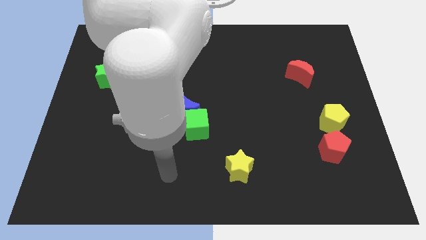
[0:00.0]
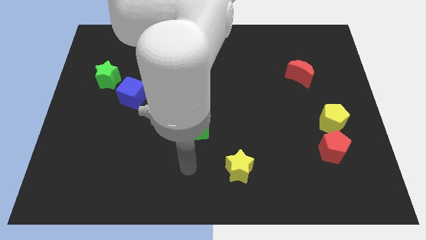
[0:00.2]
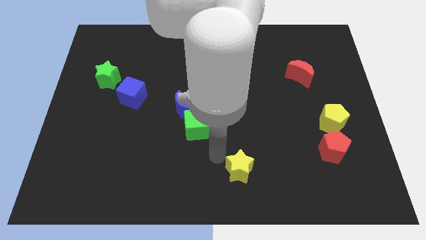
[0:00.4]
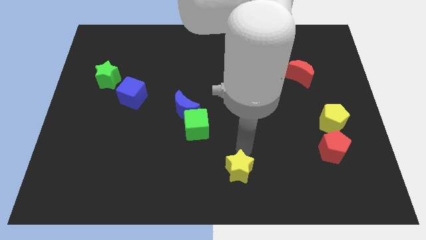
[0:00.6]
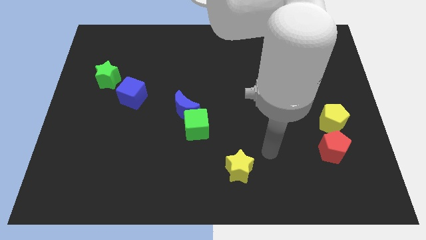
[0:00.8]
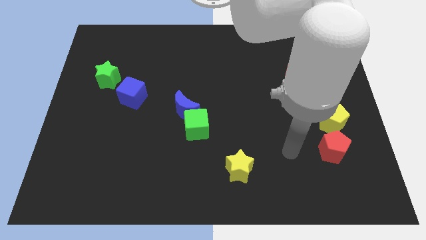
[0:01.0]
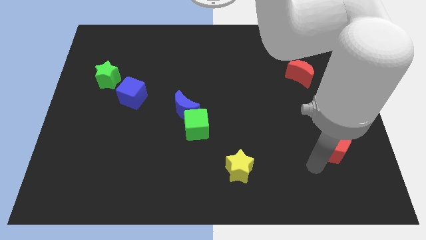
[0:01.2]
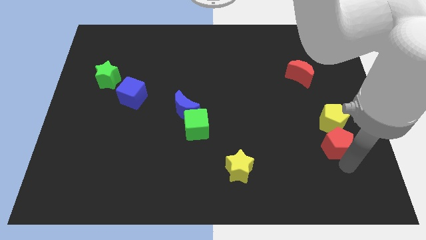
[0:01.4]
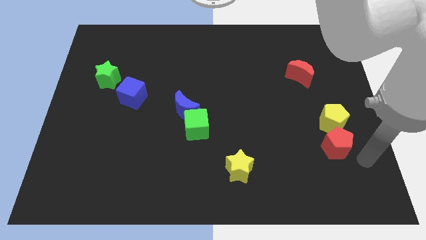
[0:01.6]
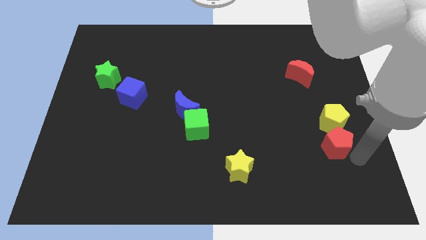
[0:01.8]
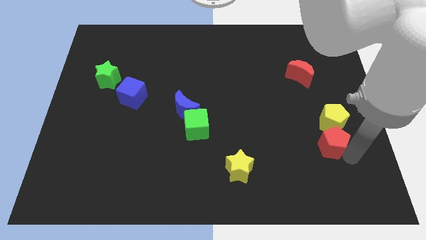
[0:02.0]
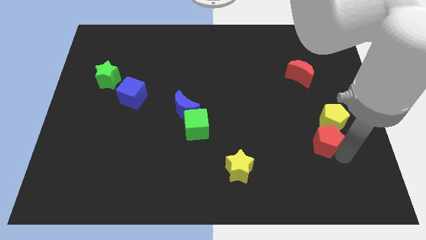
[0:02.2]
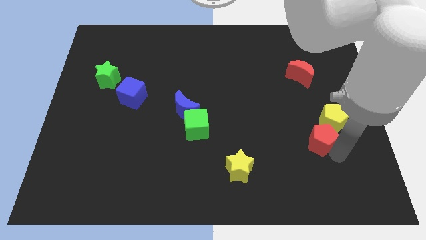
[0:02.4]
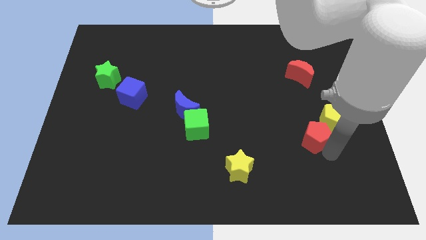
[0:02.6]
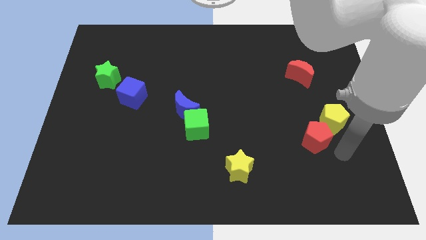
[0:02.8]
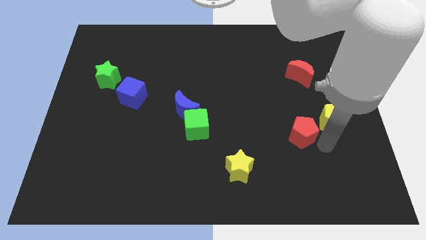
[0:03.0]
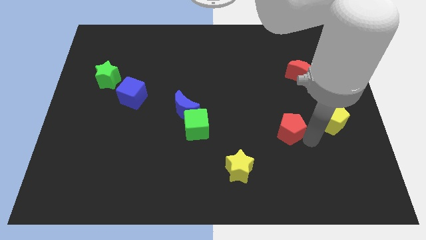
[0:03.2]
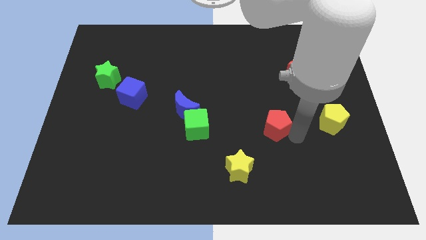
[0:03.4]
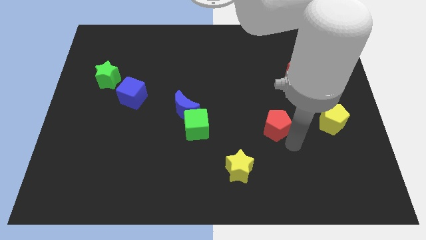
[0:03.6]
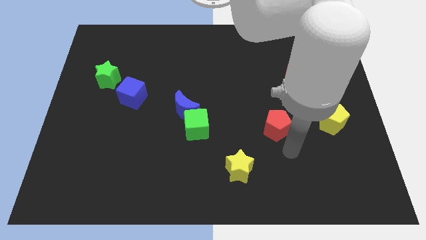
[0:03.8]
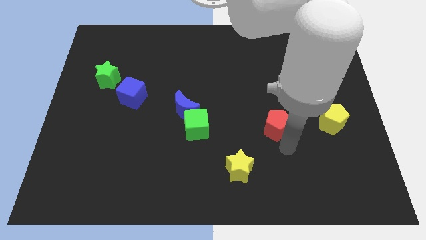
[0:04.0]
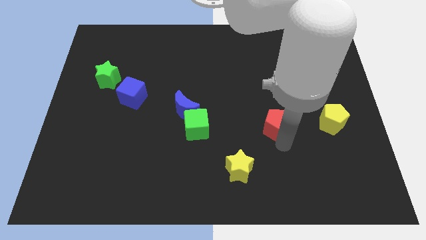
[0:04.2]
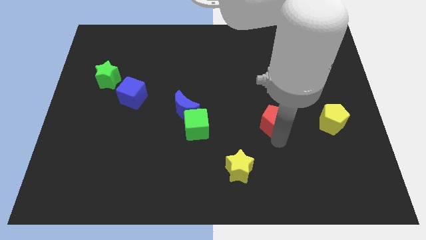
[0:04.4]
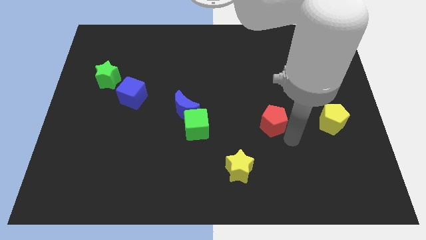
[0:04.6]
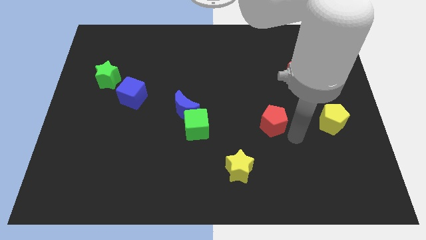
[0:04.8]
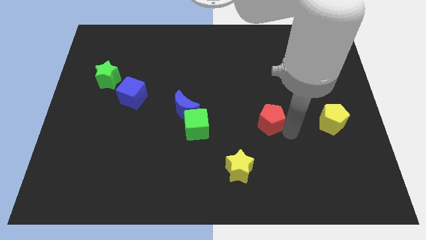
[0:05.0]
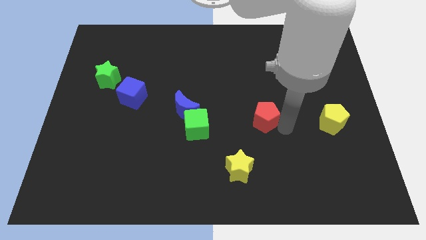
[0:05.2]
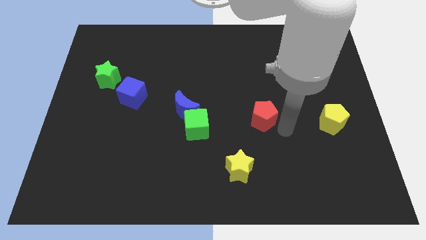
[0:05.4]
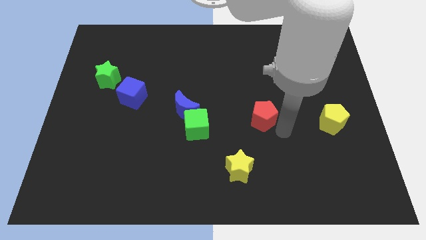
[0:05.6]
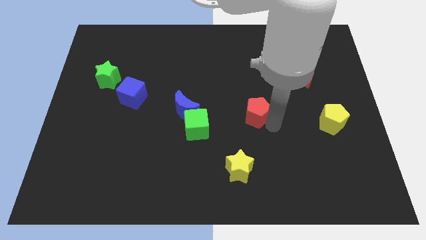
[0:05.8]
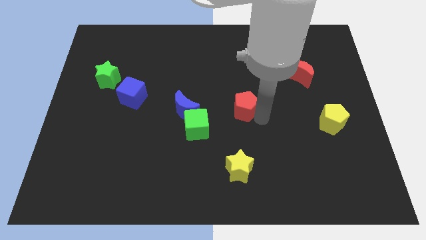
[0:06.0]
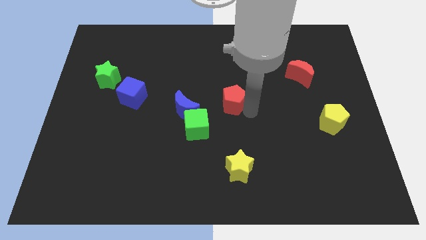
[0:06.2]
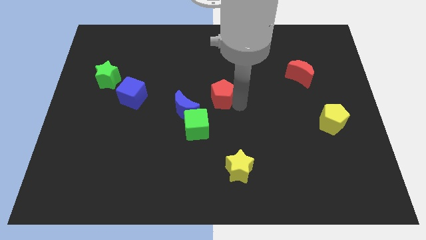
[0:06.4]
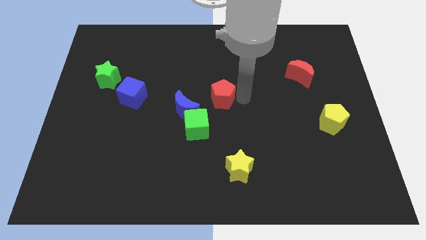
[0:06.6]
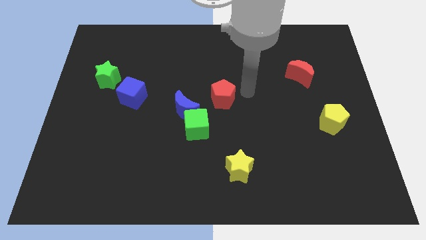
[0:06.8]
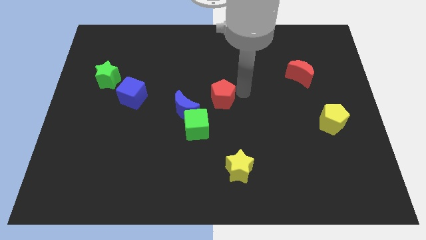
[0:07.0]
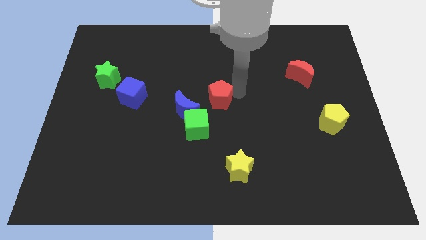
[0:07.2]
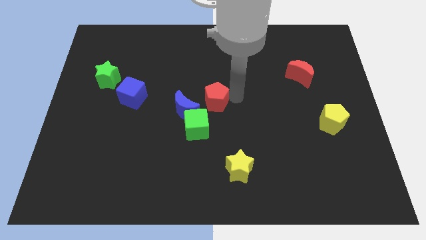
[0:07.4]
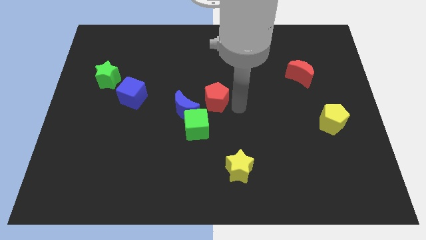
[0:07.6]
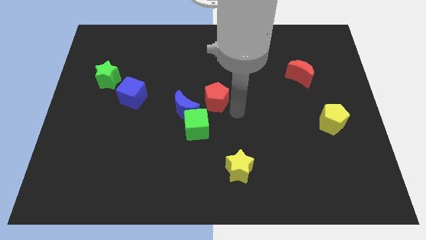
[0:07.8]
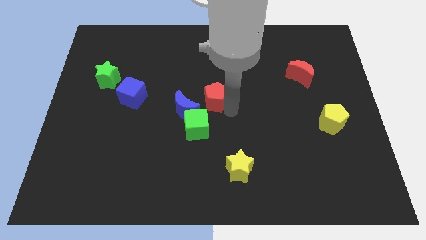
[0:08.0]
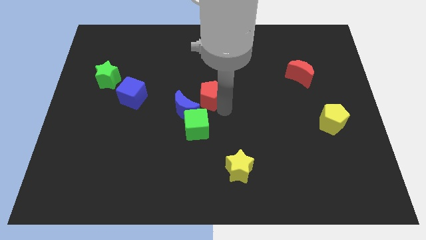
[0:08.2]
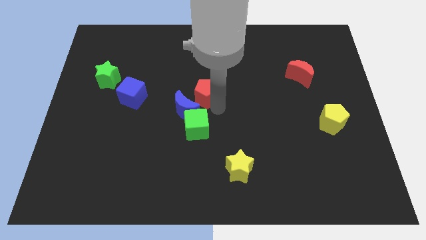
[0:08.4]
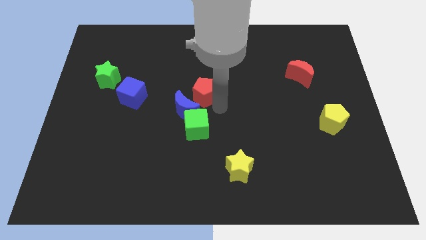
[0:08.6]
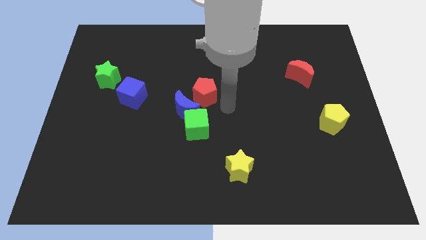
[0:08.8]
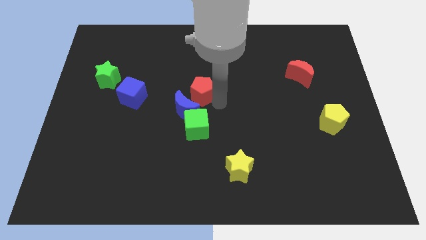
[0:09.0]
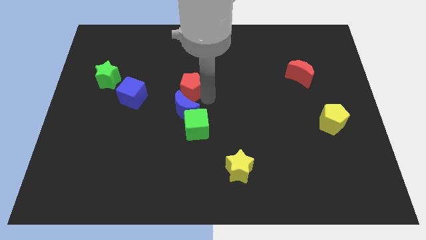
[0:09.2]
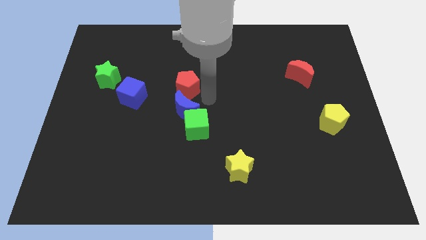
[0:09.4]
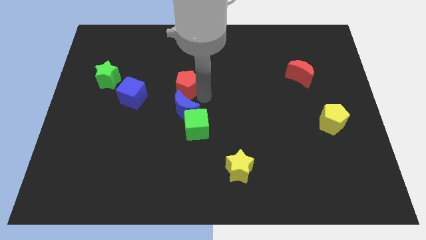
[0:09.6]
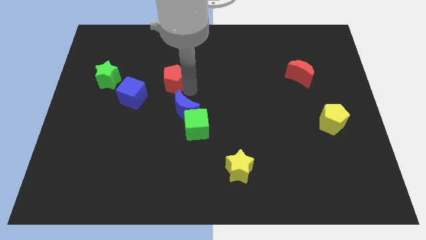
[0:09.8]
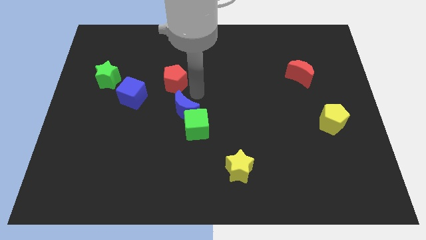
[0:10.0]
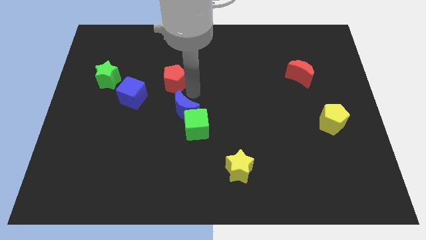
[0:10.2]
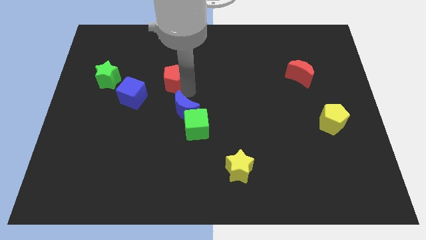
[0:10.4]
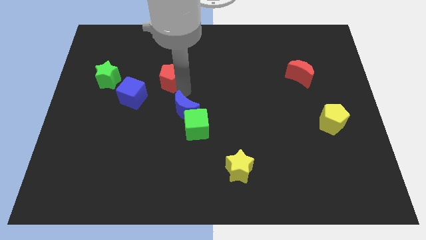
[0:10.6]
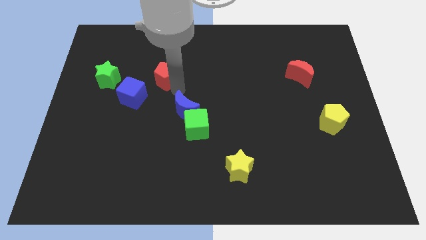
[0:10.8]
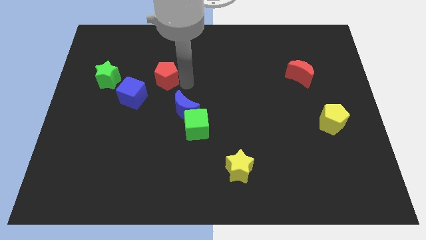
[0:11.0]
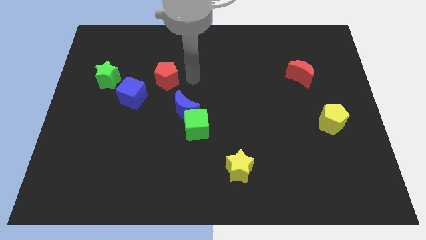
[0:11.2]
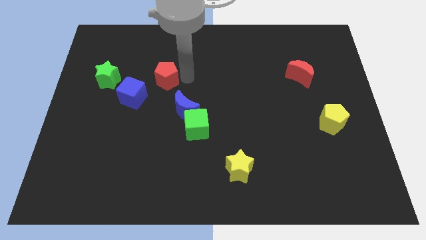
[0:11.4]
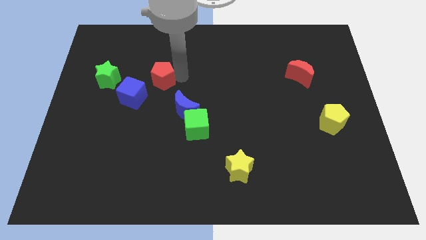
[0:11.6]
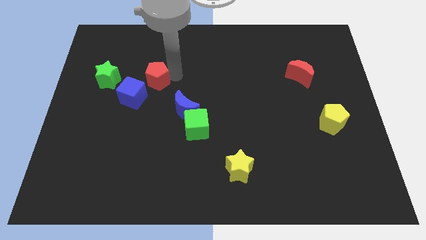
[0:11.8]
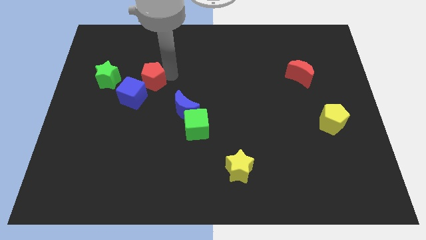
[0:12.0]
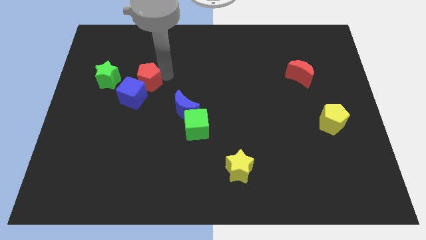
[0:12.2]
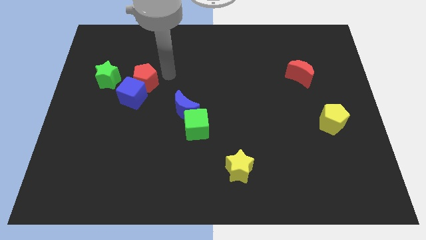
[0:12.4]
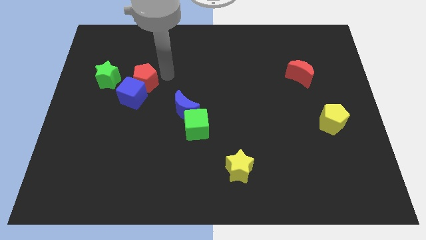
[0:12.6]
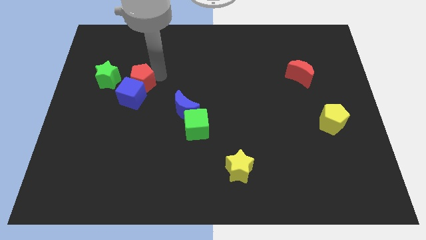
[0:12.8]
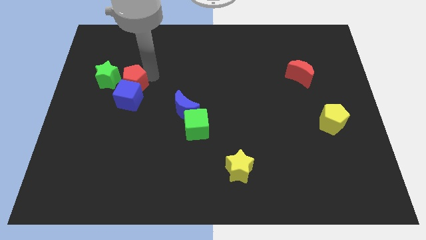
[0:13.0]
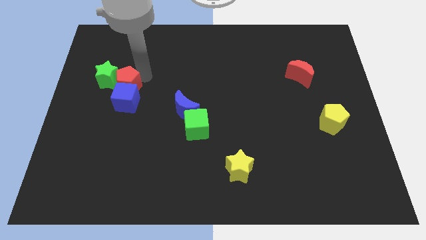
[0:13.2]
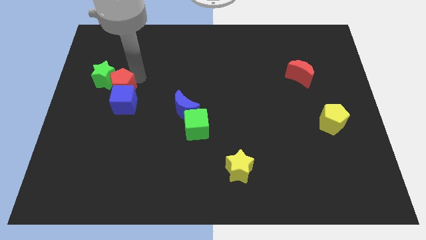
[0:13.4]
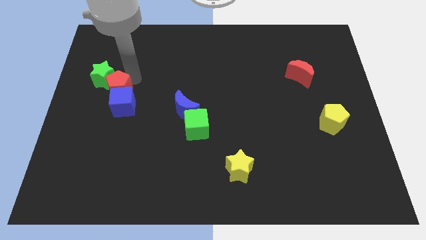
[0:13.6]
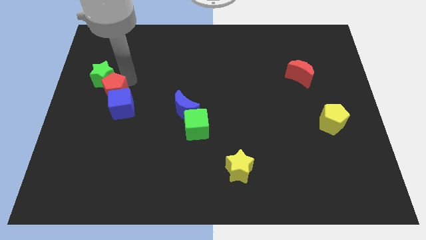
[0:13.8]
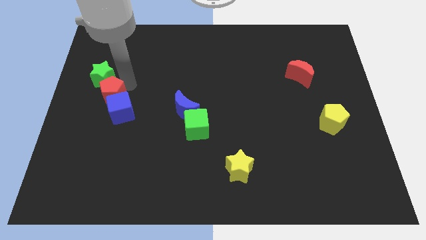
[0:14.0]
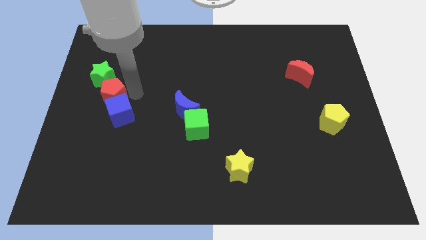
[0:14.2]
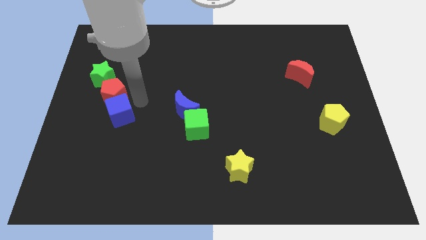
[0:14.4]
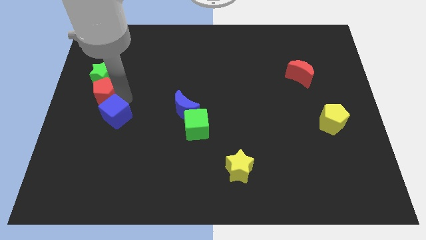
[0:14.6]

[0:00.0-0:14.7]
slide the red pentagon to the left side of the board
